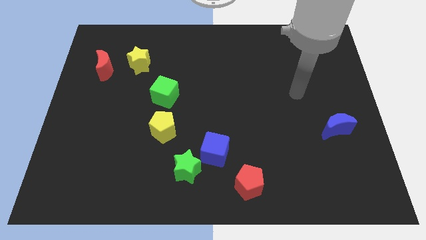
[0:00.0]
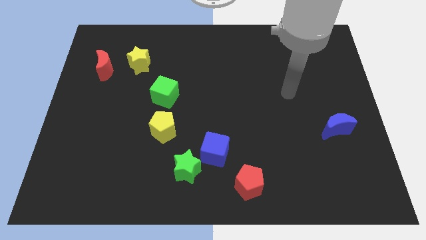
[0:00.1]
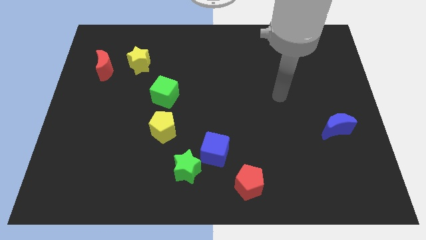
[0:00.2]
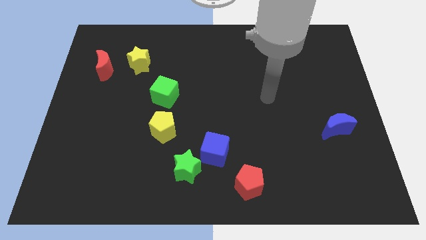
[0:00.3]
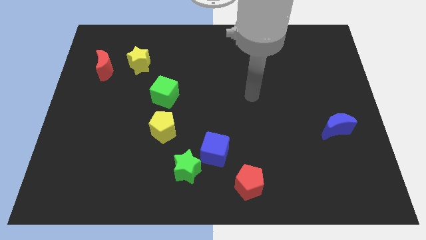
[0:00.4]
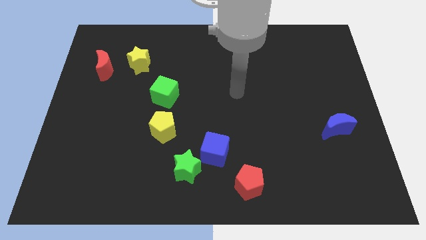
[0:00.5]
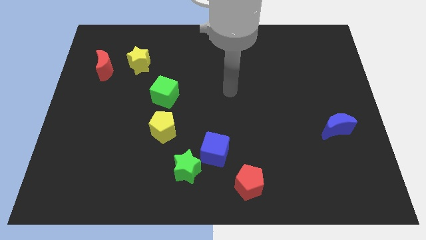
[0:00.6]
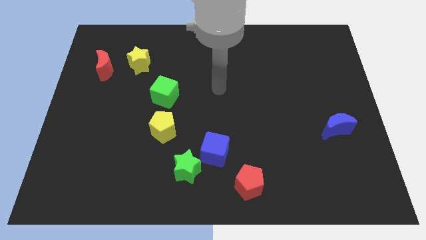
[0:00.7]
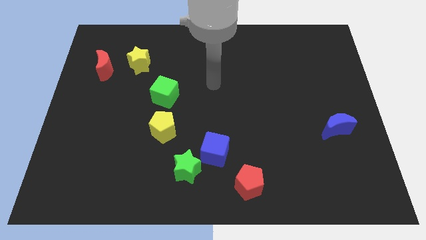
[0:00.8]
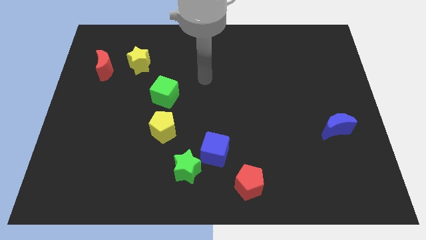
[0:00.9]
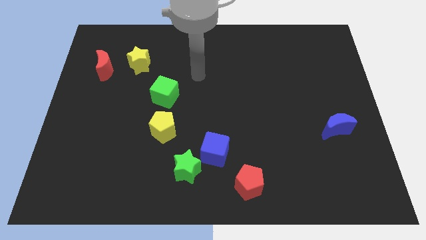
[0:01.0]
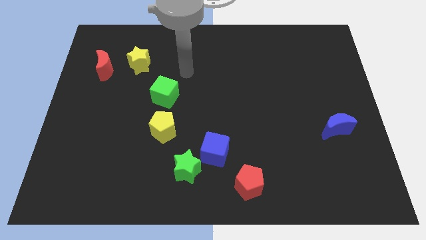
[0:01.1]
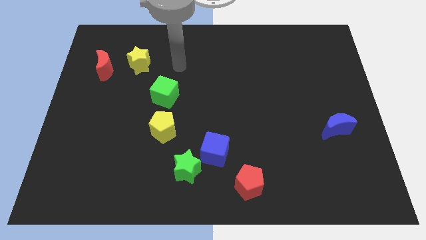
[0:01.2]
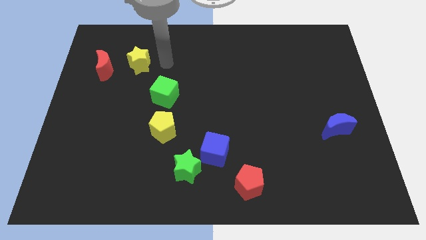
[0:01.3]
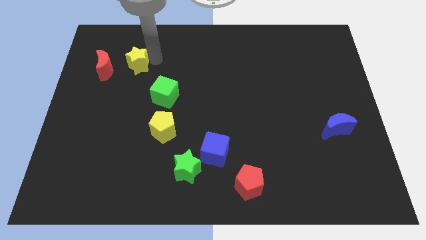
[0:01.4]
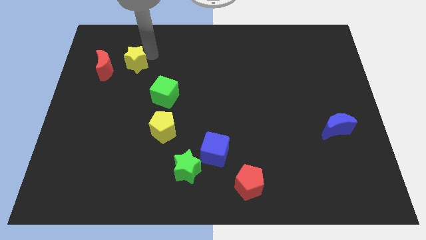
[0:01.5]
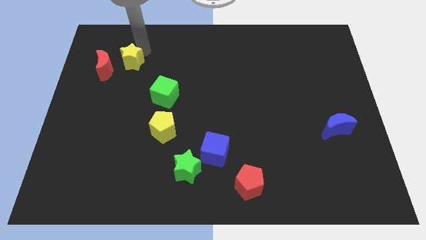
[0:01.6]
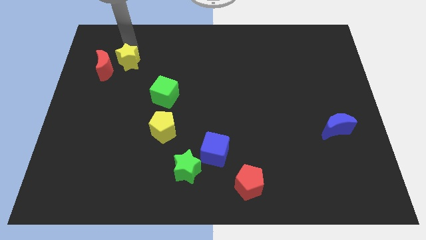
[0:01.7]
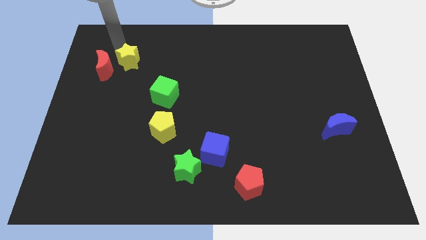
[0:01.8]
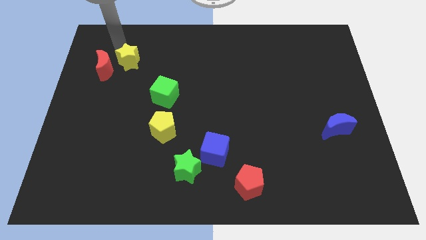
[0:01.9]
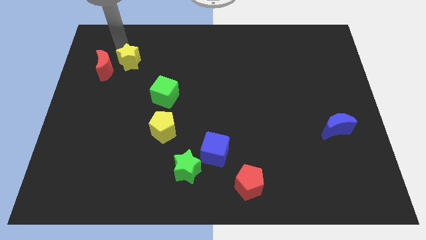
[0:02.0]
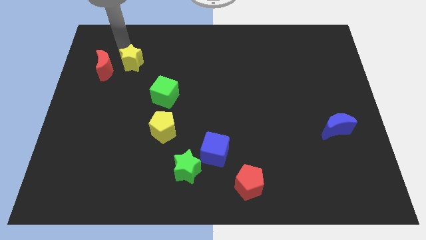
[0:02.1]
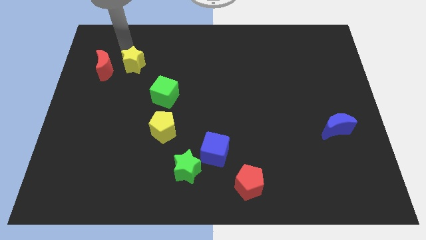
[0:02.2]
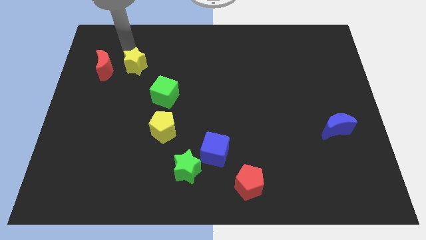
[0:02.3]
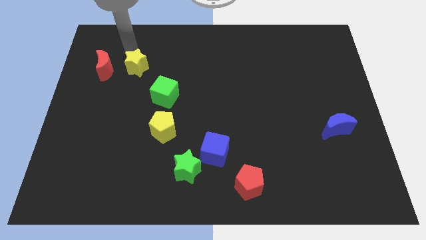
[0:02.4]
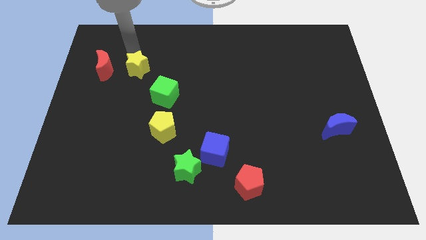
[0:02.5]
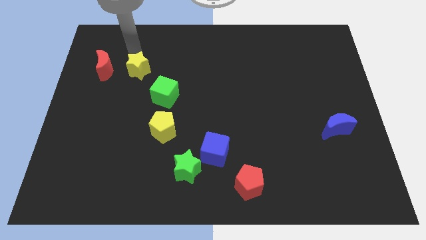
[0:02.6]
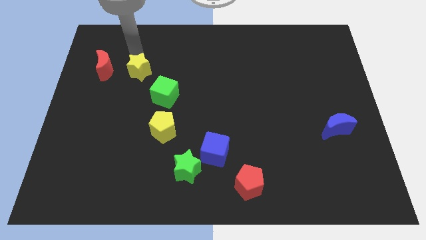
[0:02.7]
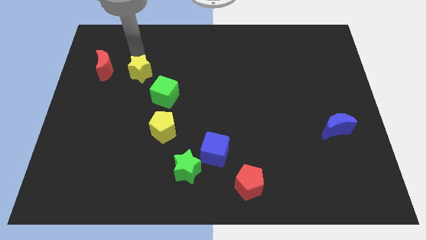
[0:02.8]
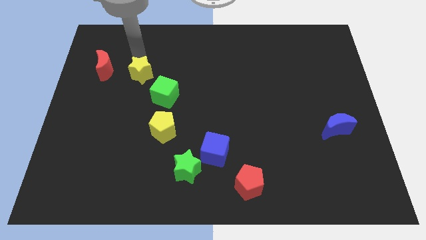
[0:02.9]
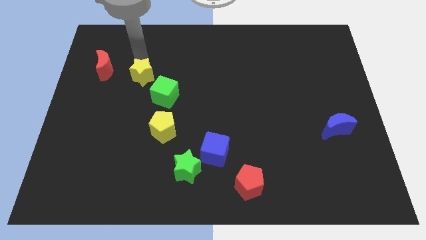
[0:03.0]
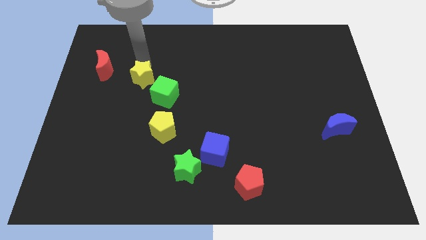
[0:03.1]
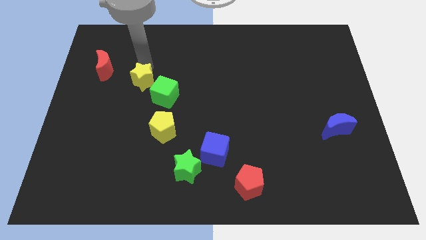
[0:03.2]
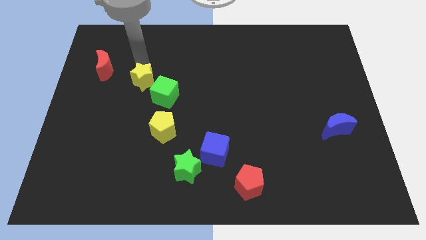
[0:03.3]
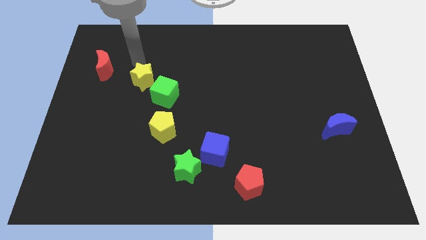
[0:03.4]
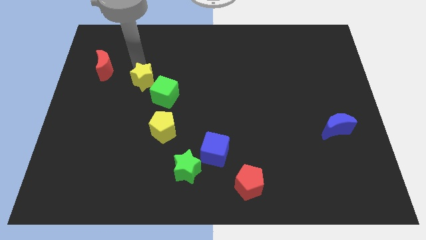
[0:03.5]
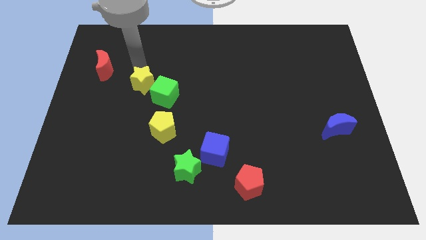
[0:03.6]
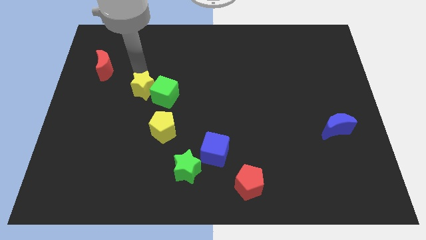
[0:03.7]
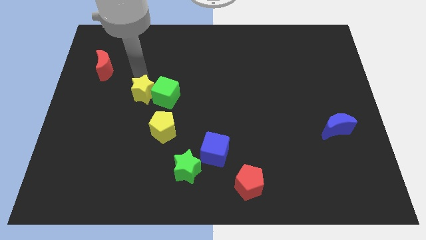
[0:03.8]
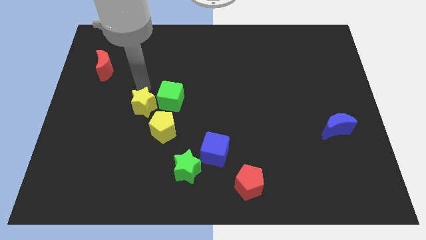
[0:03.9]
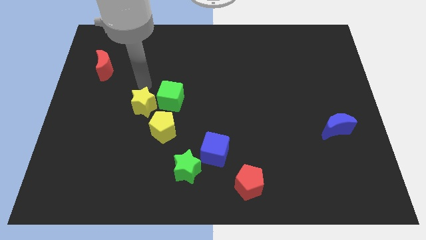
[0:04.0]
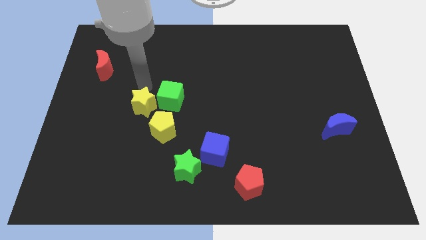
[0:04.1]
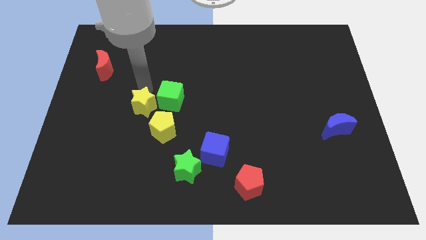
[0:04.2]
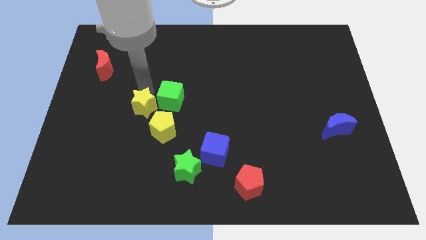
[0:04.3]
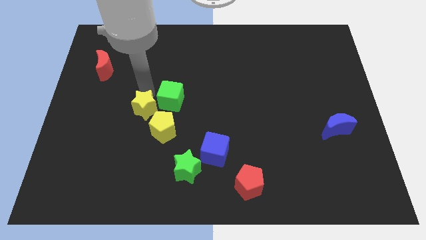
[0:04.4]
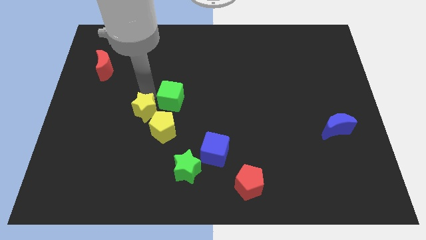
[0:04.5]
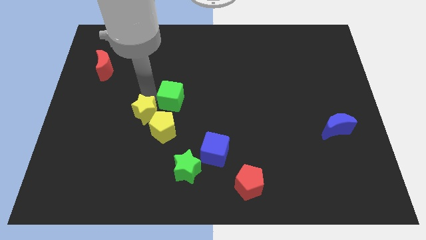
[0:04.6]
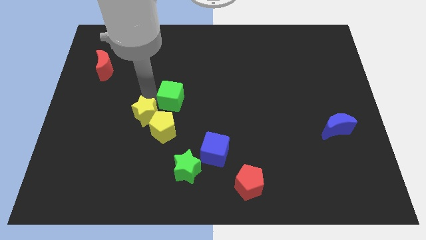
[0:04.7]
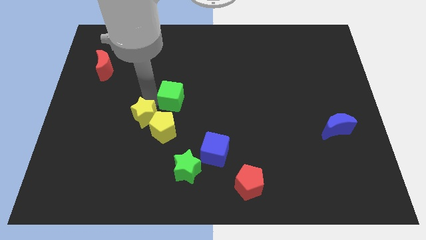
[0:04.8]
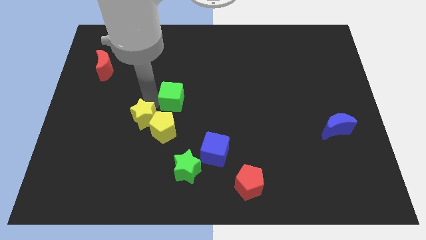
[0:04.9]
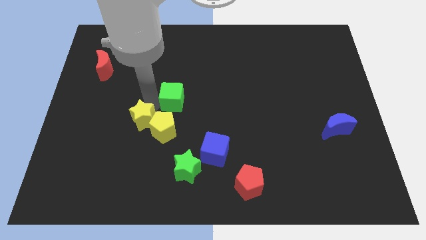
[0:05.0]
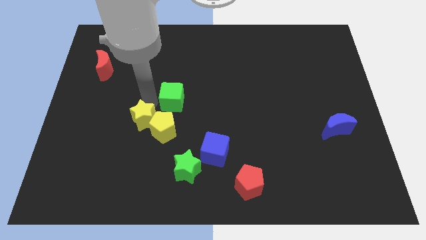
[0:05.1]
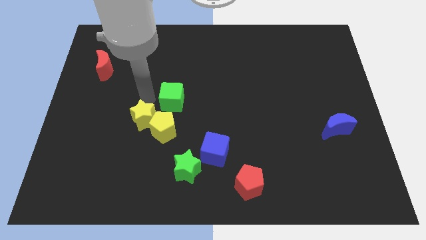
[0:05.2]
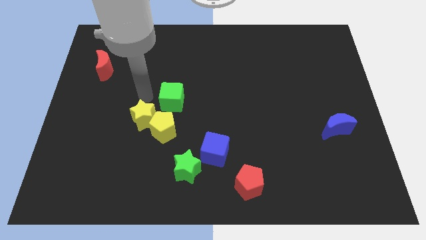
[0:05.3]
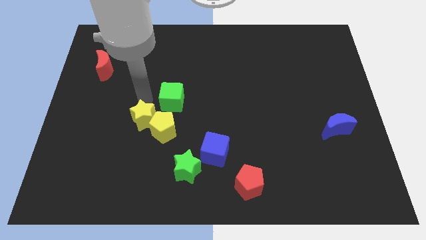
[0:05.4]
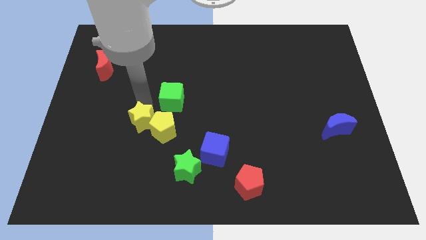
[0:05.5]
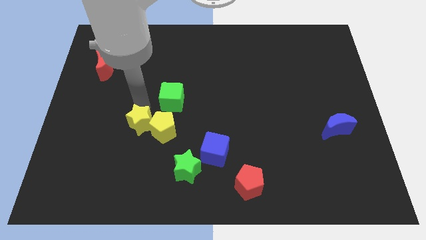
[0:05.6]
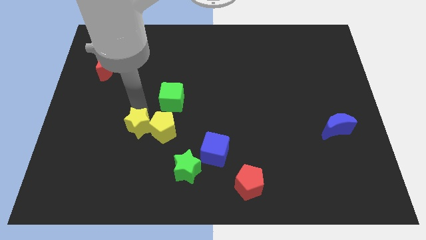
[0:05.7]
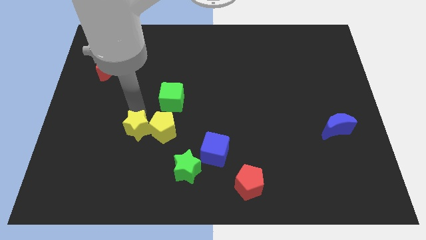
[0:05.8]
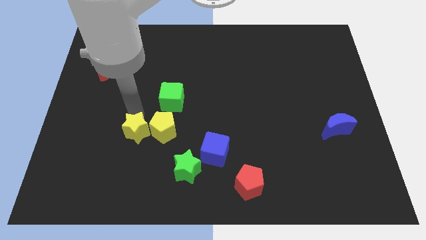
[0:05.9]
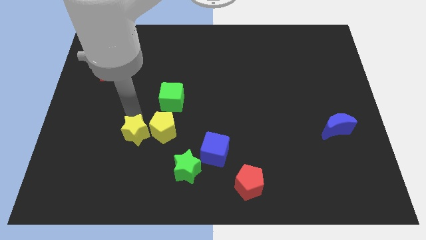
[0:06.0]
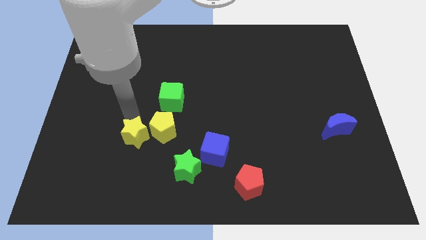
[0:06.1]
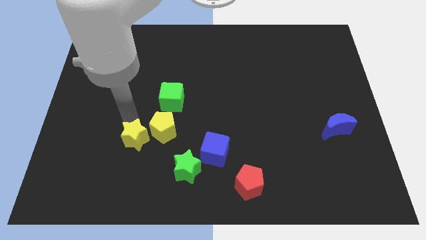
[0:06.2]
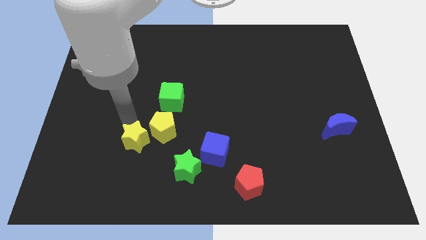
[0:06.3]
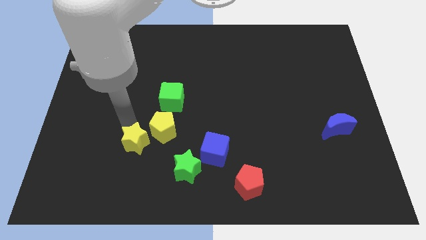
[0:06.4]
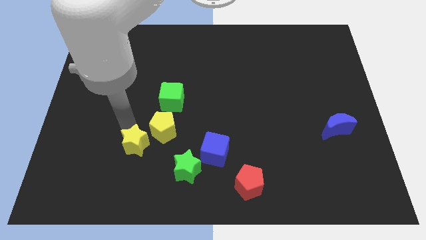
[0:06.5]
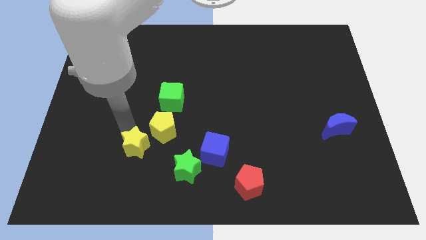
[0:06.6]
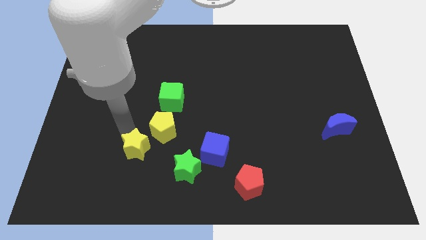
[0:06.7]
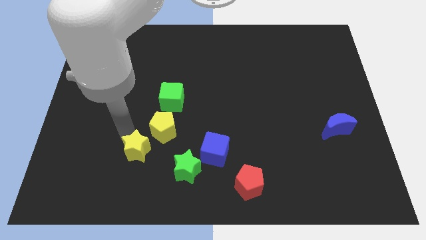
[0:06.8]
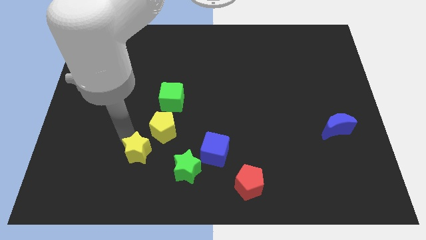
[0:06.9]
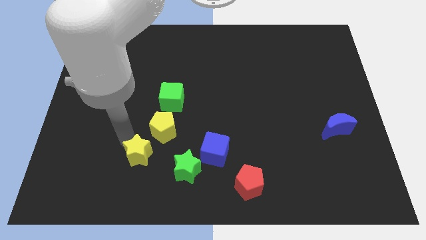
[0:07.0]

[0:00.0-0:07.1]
move the yellow star just left of the blue cube
